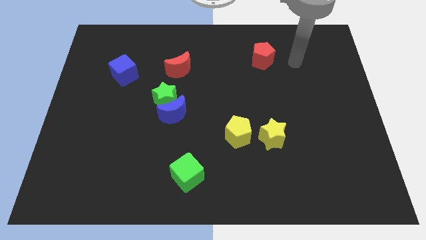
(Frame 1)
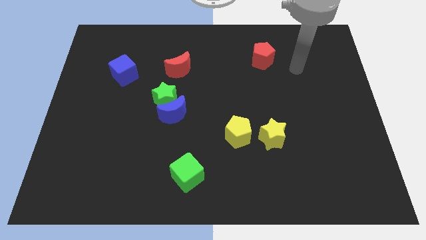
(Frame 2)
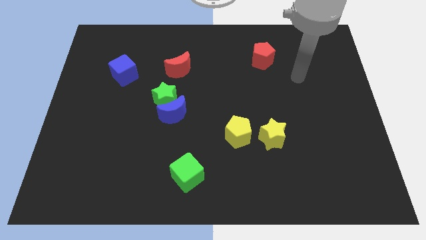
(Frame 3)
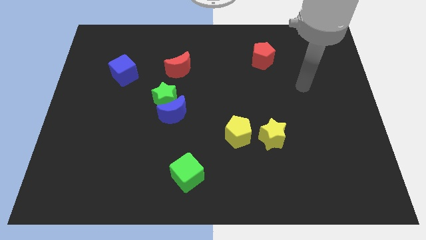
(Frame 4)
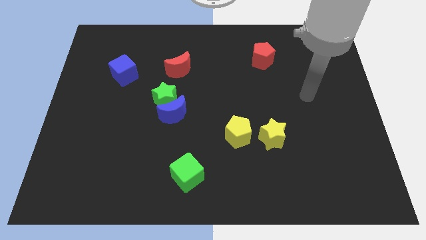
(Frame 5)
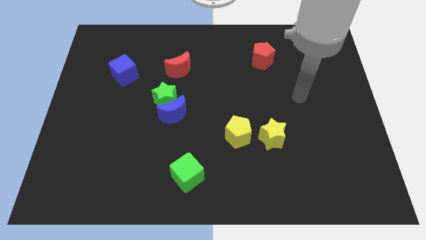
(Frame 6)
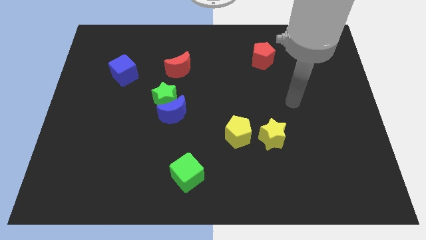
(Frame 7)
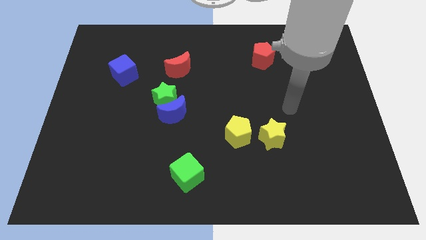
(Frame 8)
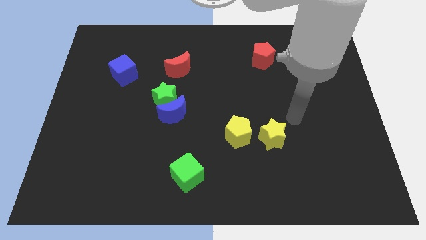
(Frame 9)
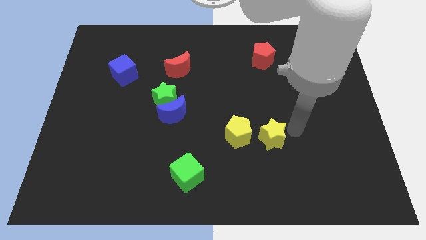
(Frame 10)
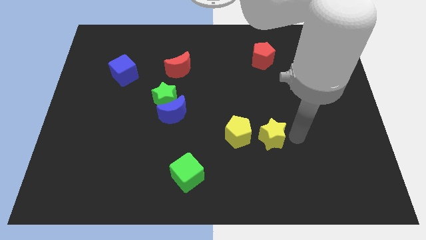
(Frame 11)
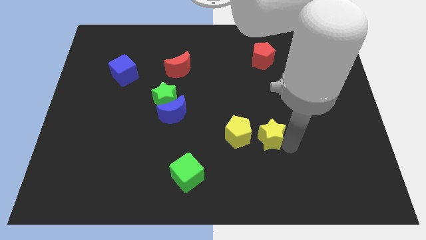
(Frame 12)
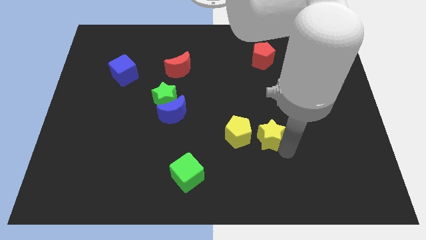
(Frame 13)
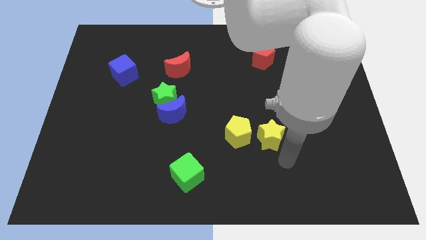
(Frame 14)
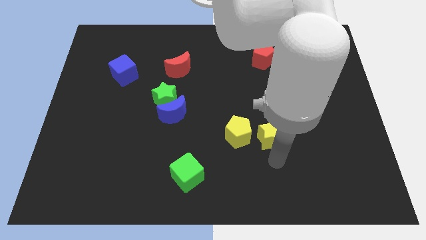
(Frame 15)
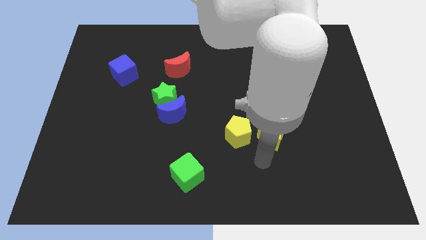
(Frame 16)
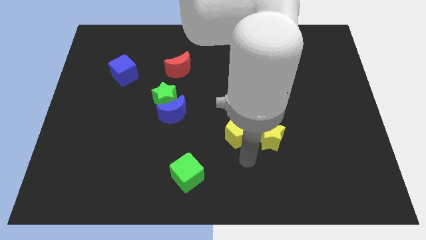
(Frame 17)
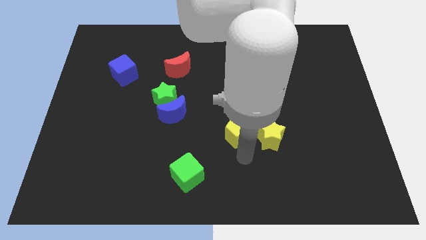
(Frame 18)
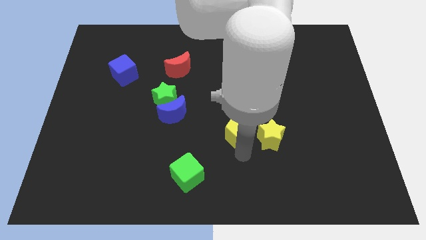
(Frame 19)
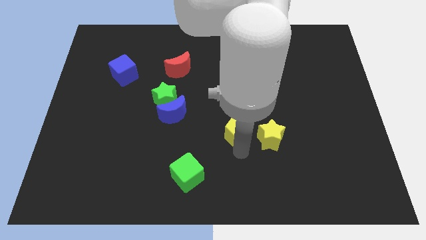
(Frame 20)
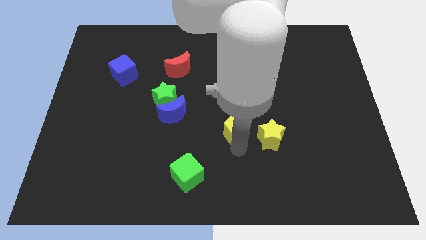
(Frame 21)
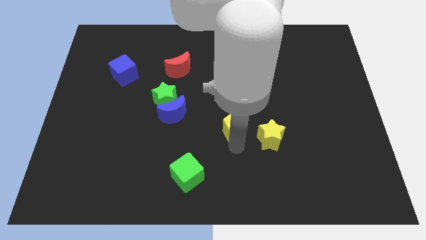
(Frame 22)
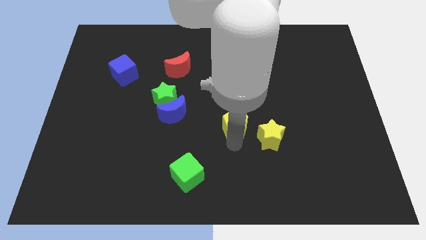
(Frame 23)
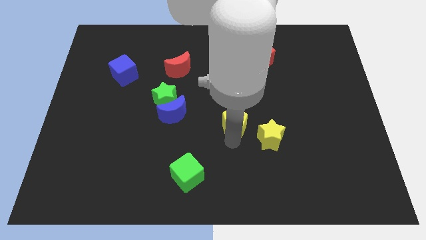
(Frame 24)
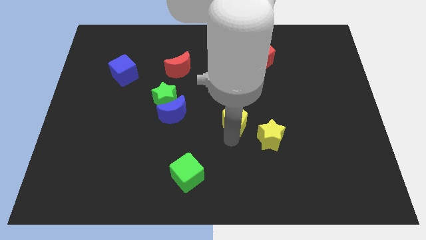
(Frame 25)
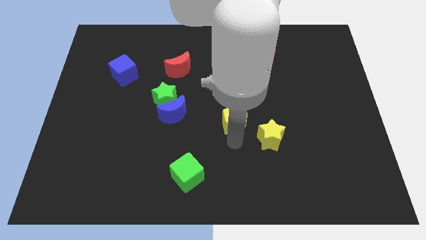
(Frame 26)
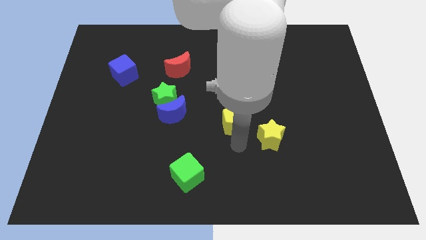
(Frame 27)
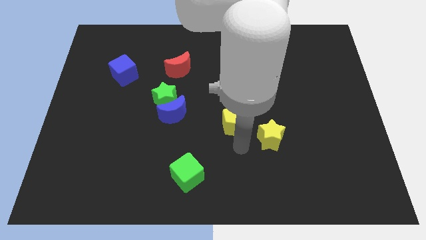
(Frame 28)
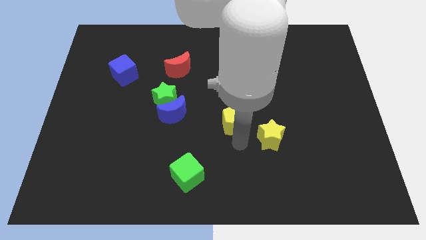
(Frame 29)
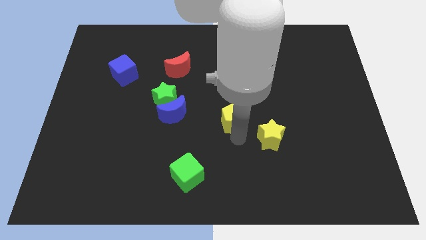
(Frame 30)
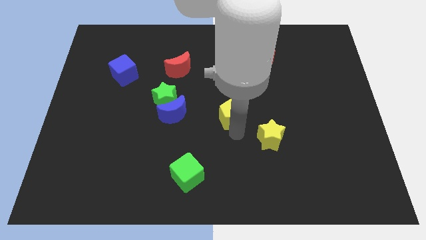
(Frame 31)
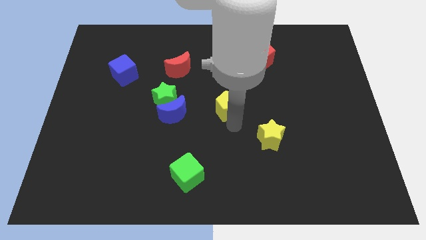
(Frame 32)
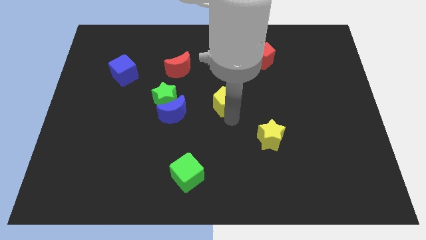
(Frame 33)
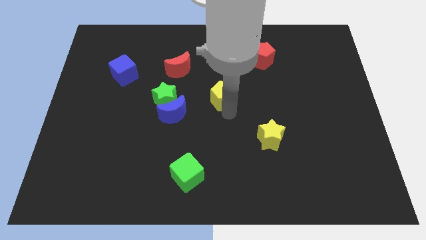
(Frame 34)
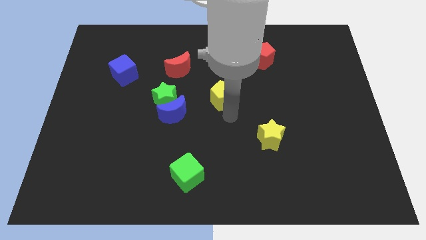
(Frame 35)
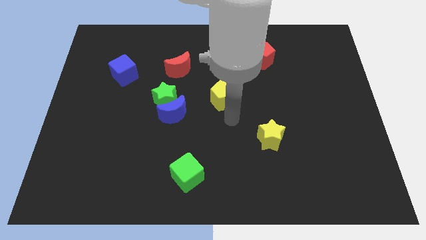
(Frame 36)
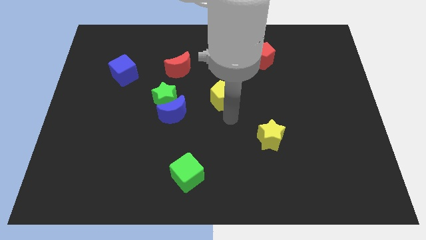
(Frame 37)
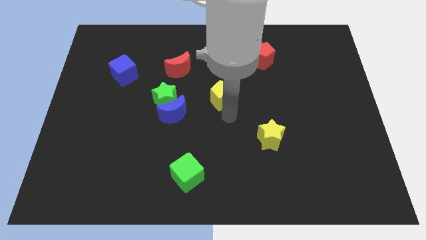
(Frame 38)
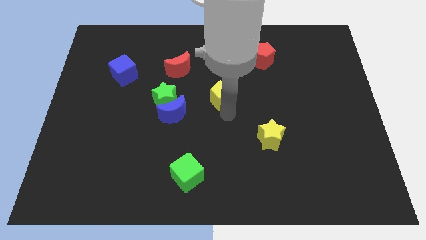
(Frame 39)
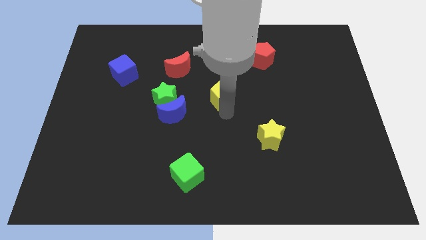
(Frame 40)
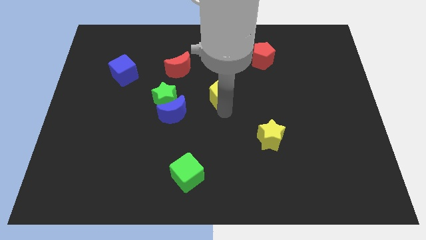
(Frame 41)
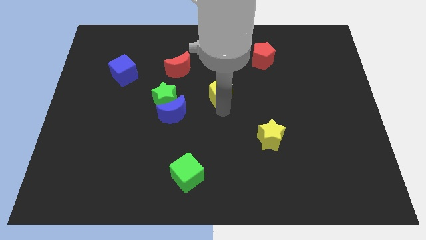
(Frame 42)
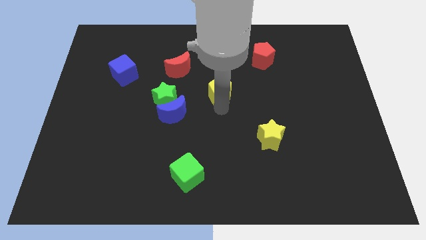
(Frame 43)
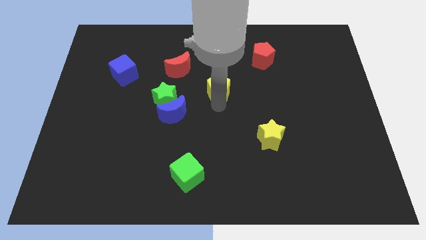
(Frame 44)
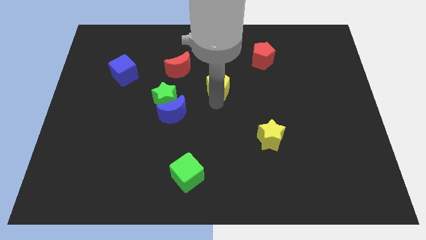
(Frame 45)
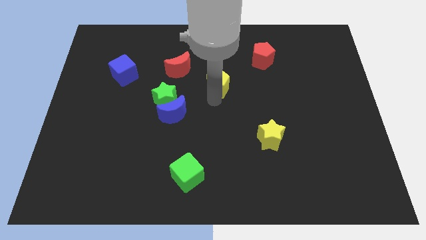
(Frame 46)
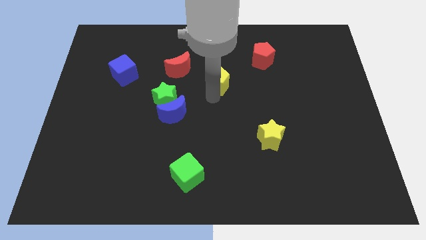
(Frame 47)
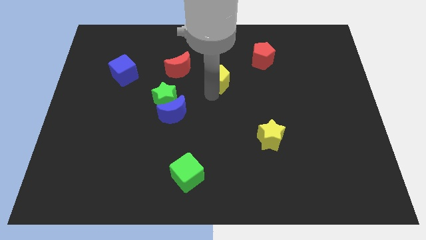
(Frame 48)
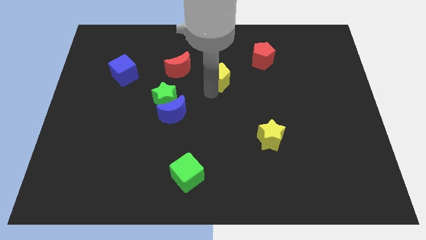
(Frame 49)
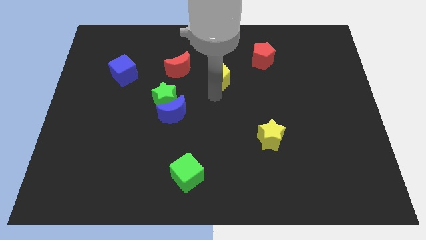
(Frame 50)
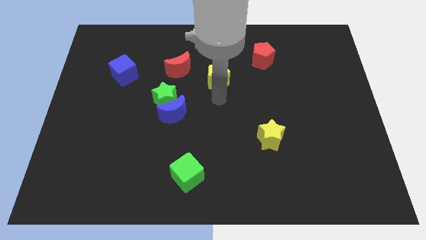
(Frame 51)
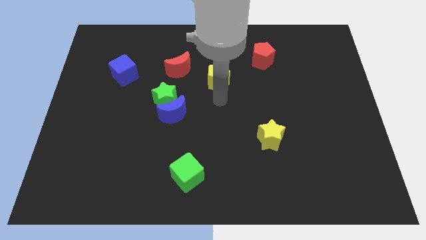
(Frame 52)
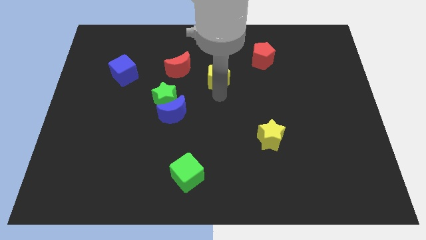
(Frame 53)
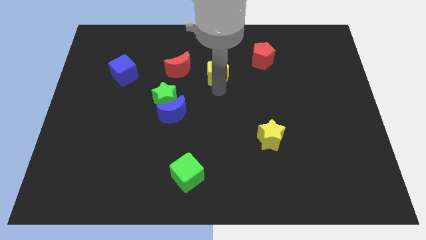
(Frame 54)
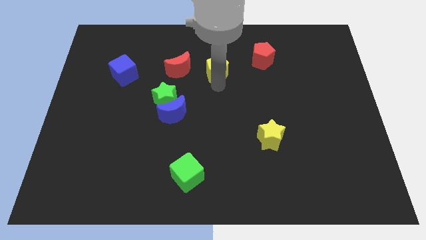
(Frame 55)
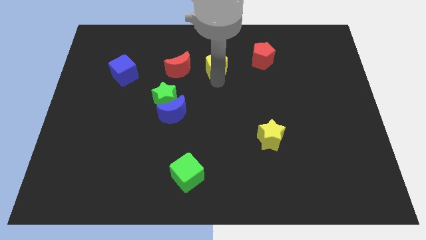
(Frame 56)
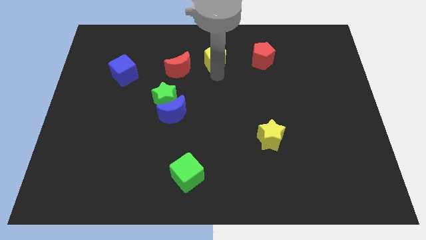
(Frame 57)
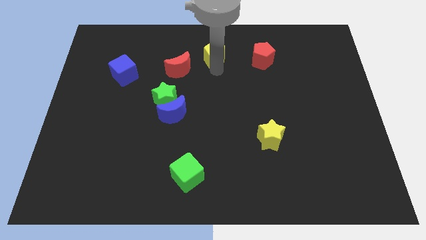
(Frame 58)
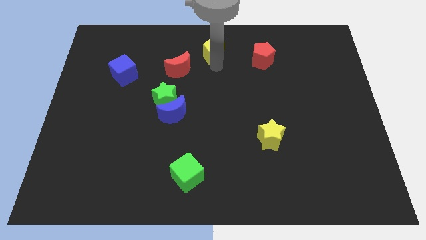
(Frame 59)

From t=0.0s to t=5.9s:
slide the yellow pentagon to the towards your base

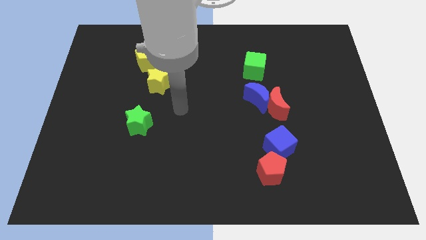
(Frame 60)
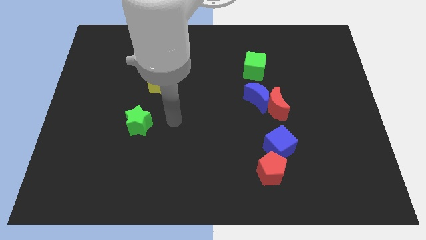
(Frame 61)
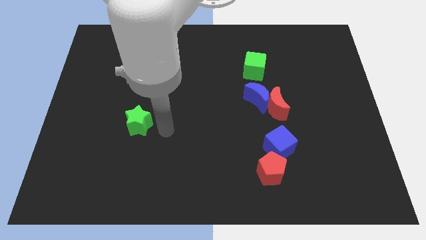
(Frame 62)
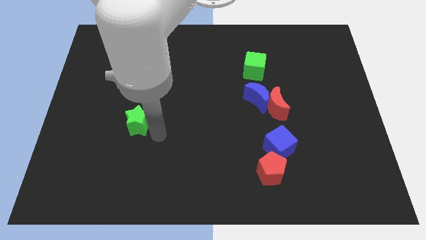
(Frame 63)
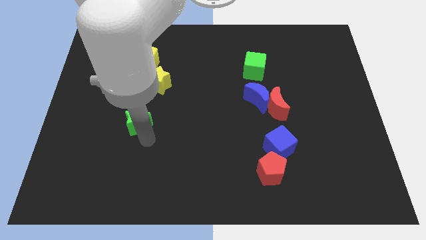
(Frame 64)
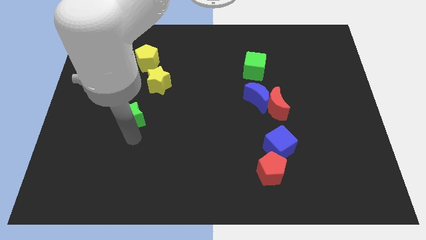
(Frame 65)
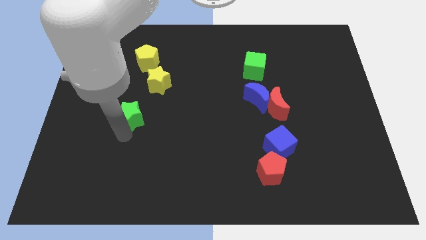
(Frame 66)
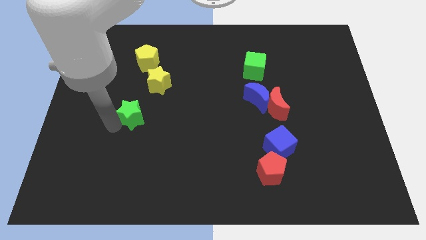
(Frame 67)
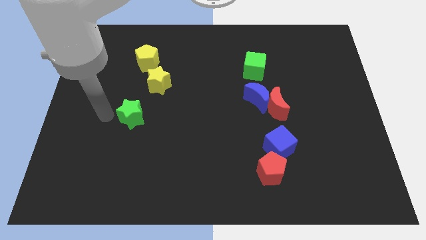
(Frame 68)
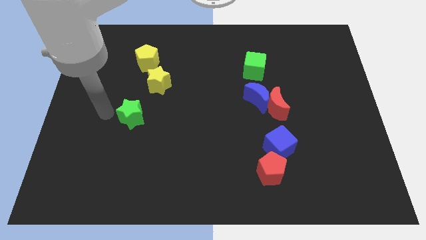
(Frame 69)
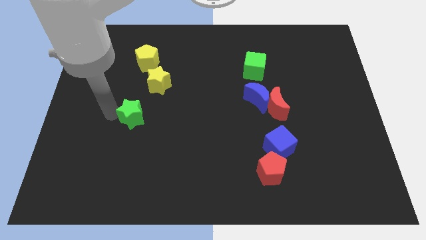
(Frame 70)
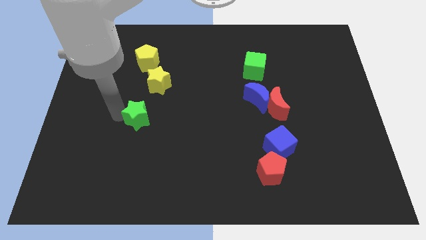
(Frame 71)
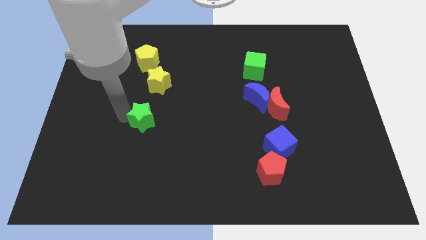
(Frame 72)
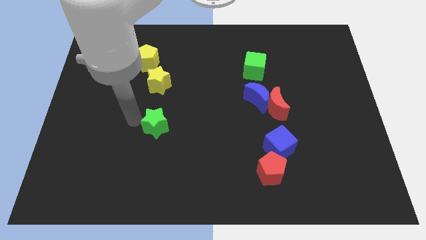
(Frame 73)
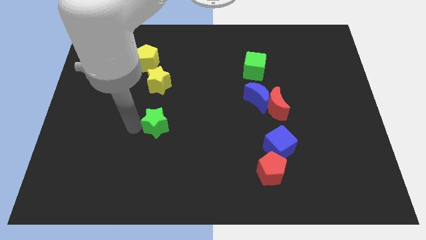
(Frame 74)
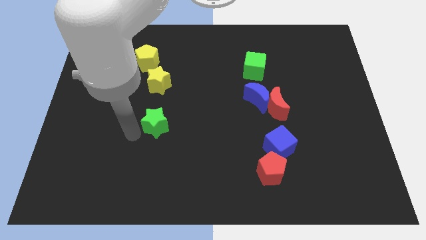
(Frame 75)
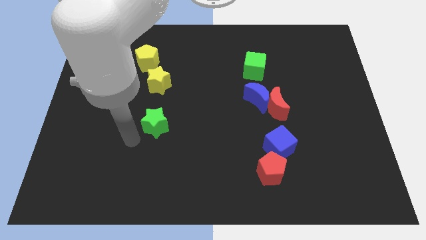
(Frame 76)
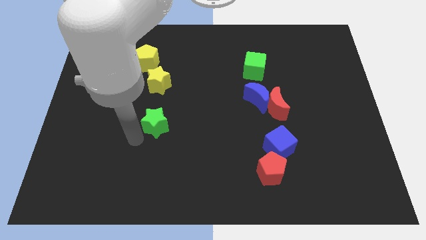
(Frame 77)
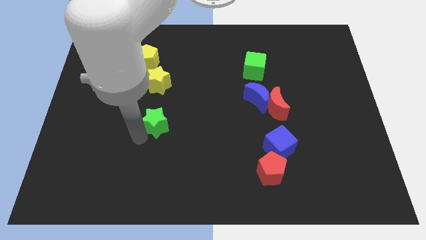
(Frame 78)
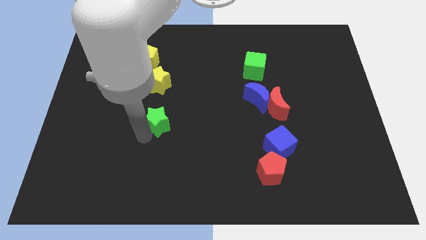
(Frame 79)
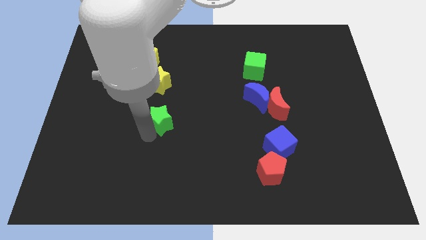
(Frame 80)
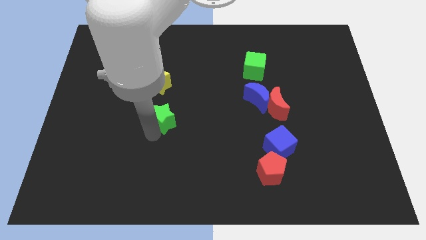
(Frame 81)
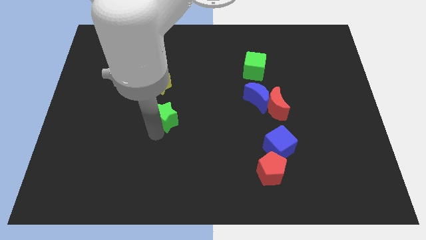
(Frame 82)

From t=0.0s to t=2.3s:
move the green star to the middle of the board
